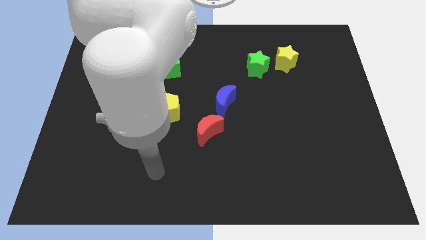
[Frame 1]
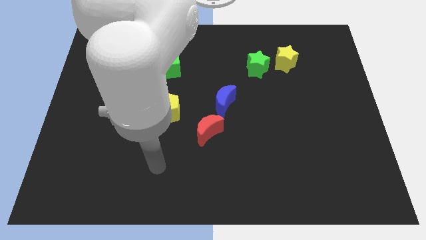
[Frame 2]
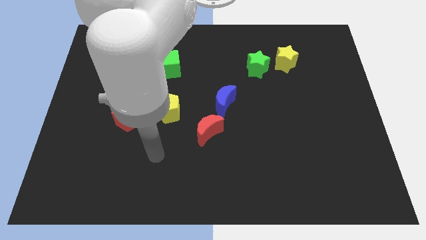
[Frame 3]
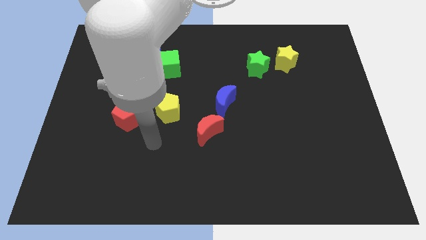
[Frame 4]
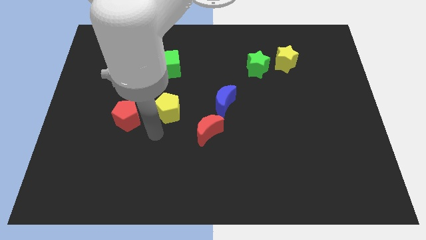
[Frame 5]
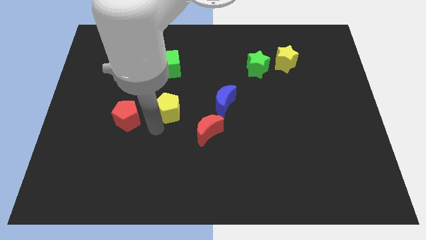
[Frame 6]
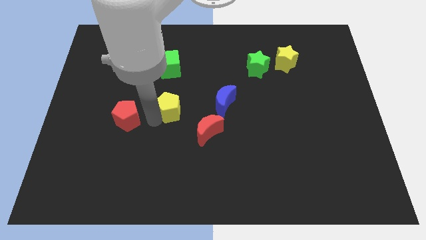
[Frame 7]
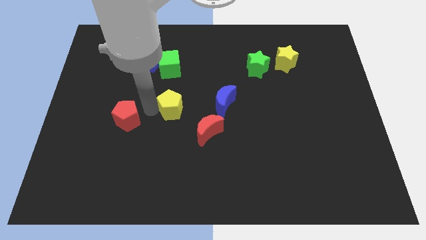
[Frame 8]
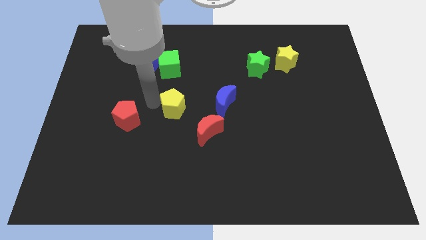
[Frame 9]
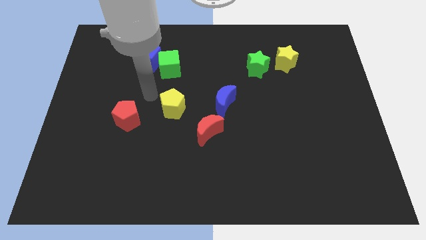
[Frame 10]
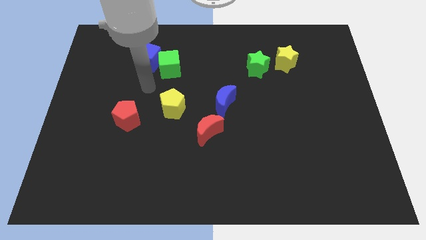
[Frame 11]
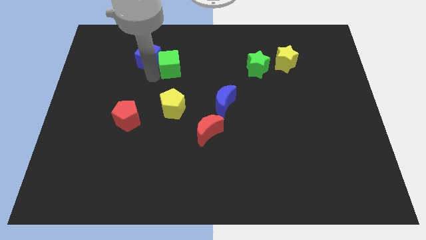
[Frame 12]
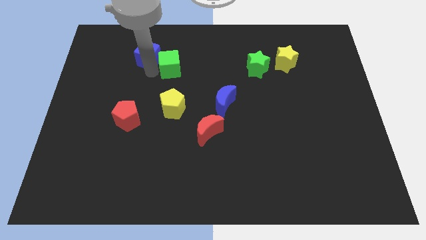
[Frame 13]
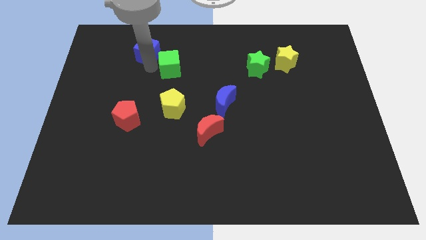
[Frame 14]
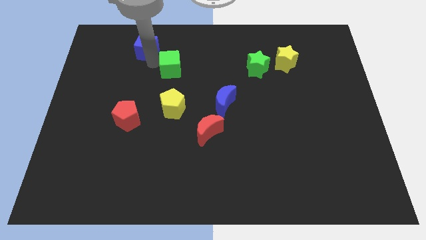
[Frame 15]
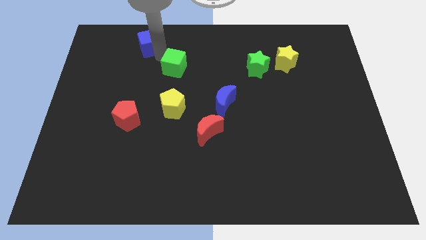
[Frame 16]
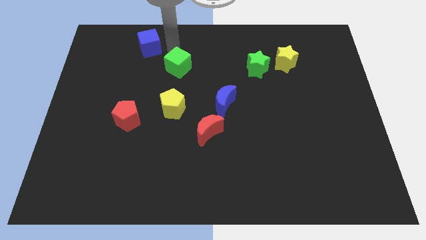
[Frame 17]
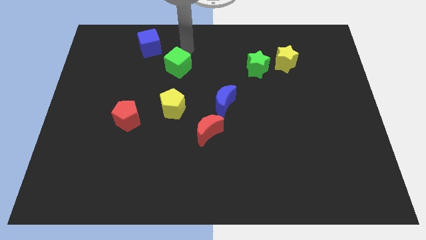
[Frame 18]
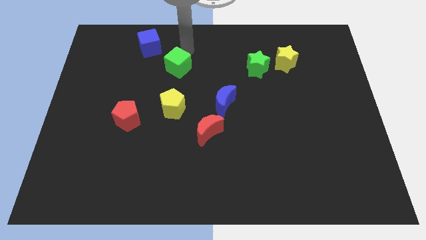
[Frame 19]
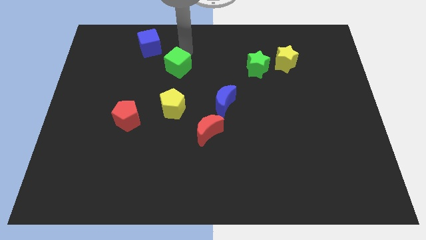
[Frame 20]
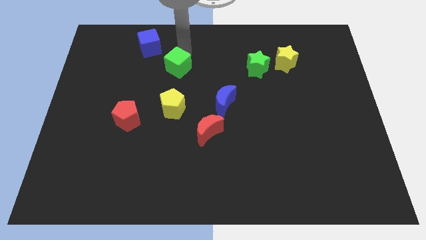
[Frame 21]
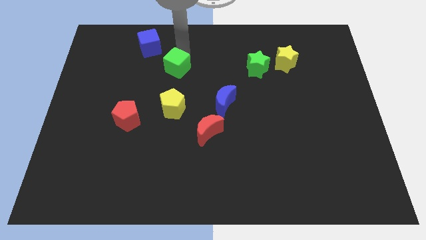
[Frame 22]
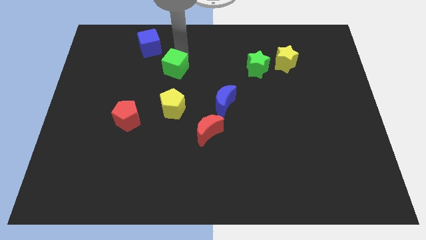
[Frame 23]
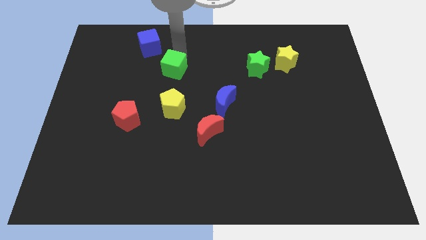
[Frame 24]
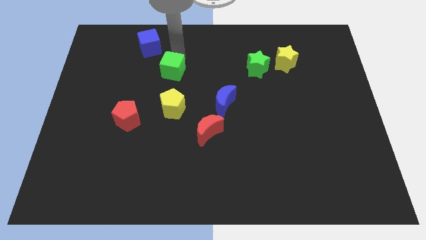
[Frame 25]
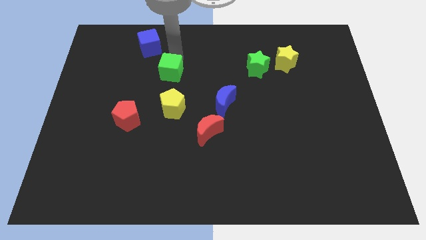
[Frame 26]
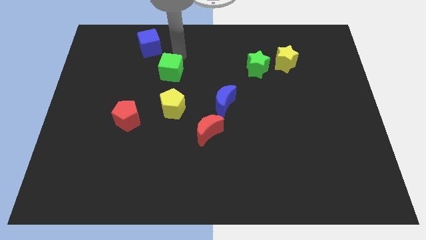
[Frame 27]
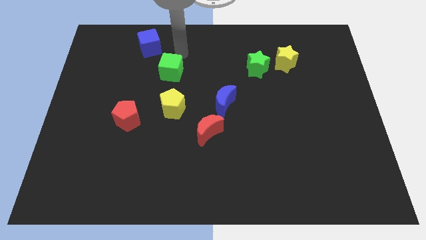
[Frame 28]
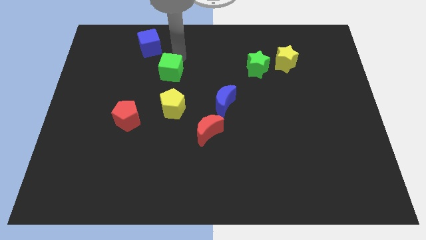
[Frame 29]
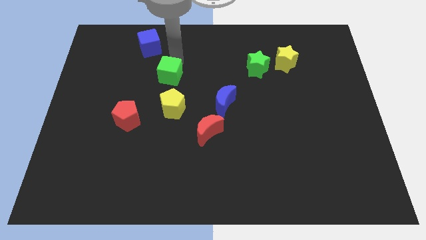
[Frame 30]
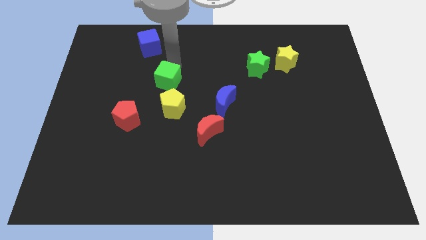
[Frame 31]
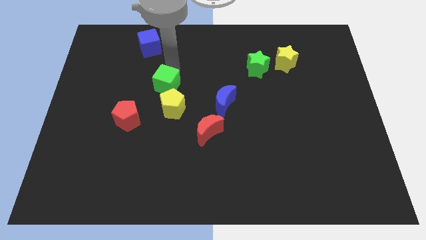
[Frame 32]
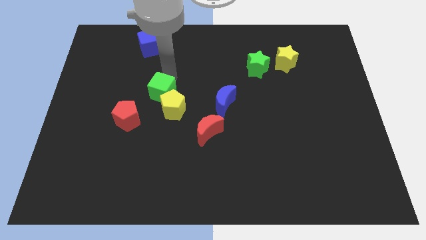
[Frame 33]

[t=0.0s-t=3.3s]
slide the green cube down slightly

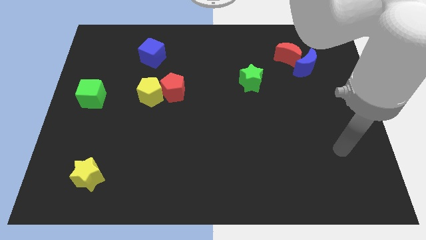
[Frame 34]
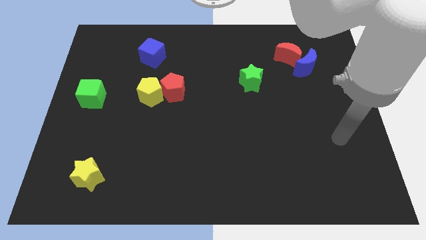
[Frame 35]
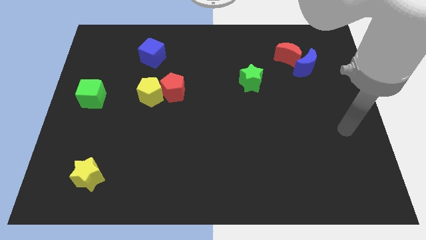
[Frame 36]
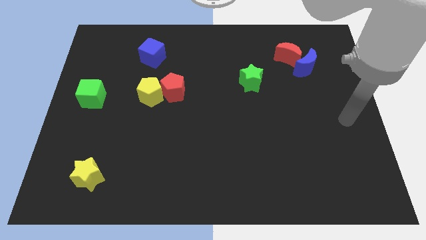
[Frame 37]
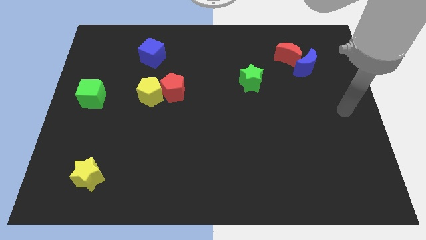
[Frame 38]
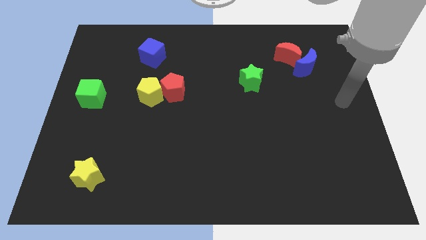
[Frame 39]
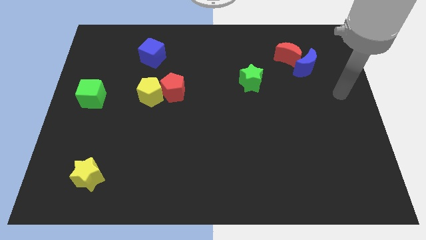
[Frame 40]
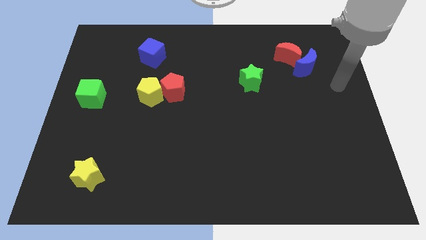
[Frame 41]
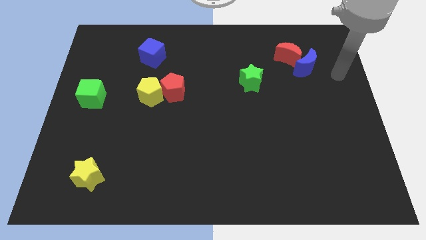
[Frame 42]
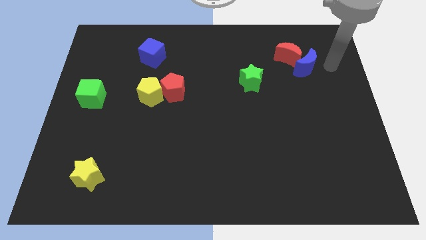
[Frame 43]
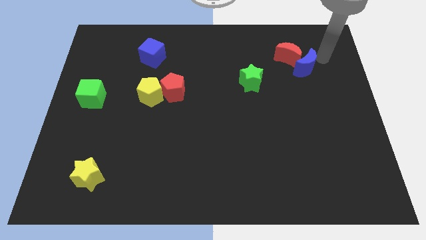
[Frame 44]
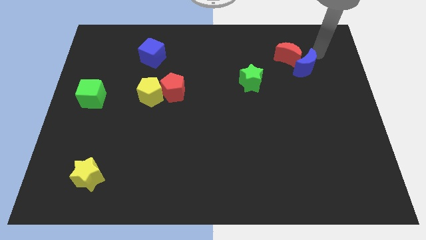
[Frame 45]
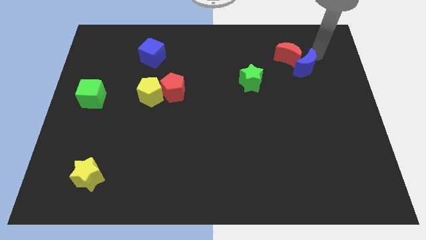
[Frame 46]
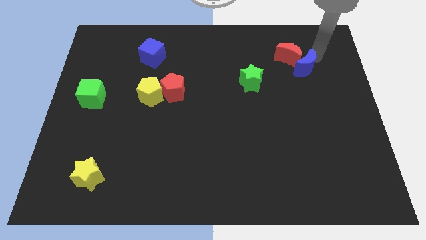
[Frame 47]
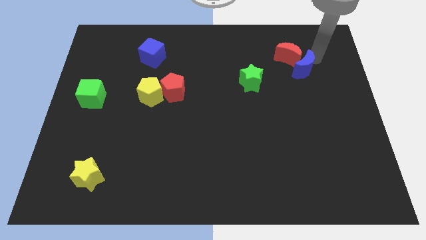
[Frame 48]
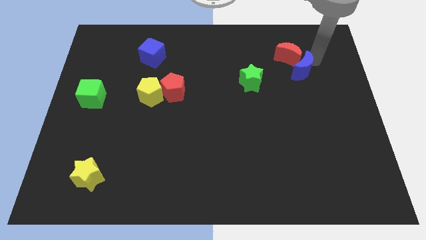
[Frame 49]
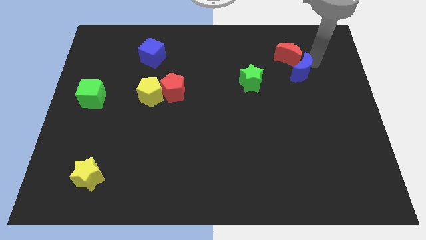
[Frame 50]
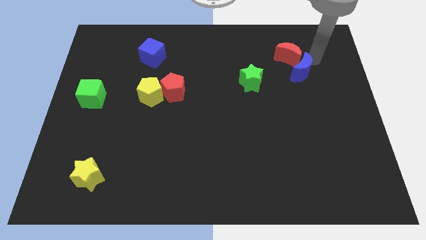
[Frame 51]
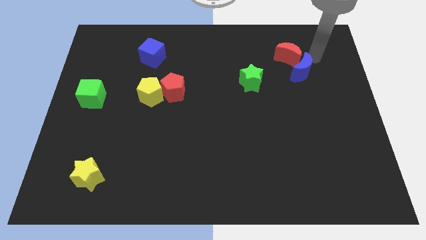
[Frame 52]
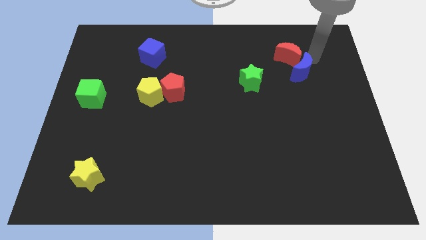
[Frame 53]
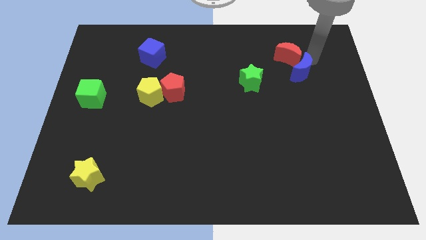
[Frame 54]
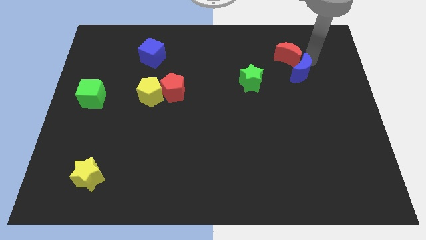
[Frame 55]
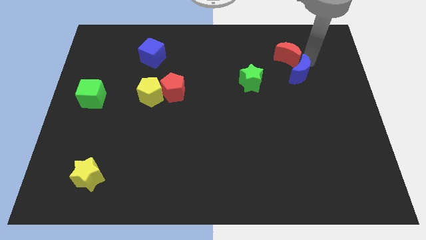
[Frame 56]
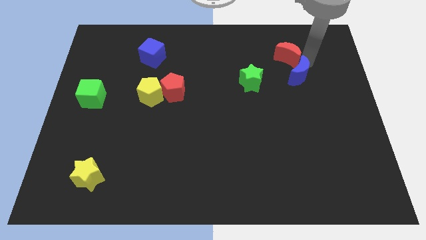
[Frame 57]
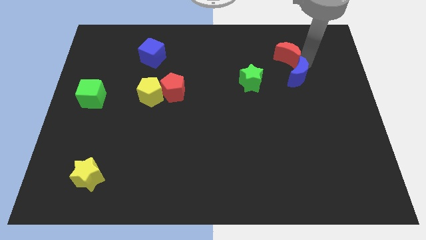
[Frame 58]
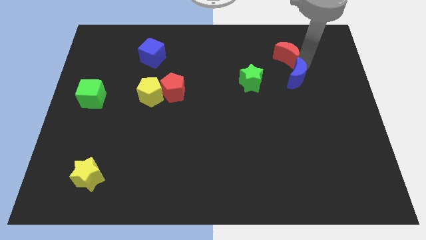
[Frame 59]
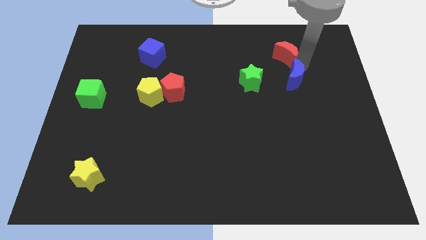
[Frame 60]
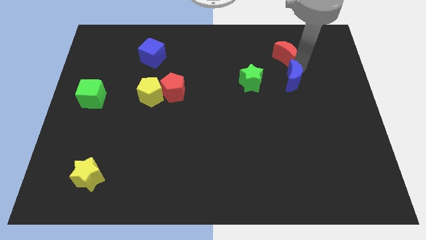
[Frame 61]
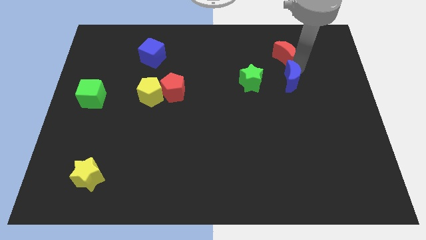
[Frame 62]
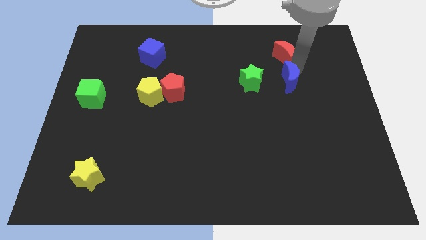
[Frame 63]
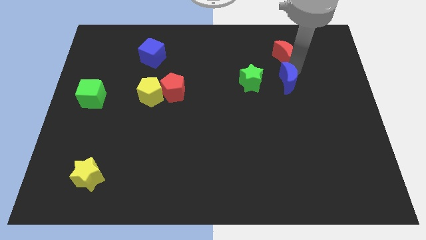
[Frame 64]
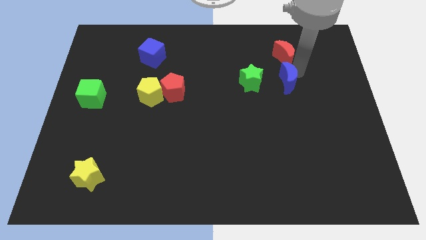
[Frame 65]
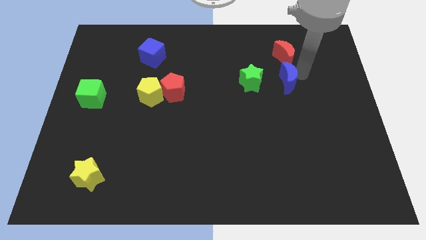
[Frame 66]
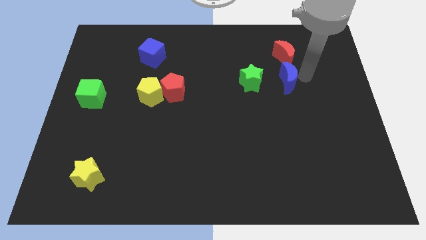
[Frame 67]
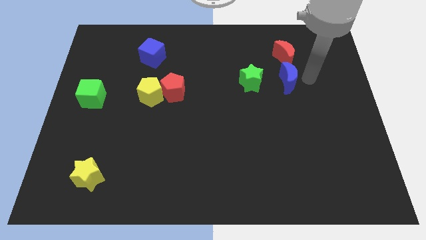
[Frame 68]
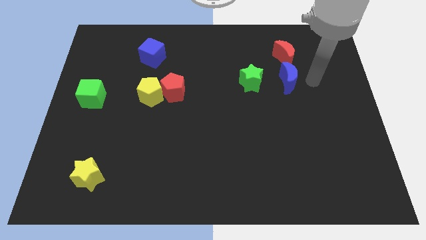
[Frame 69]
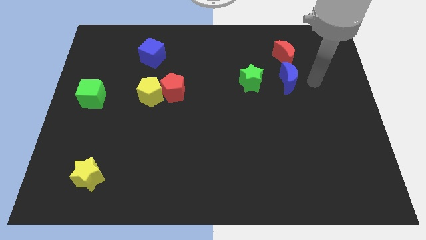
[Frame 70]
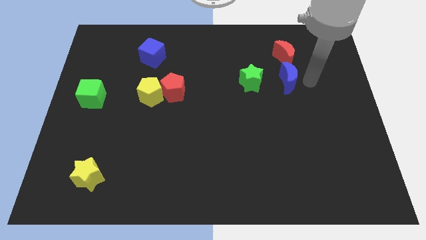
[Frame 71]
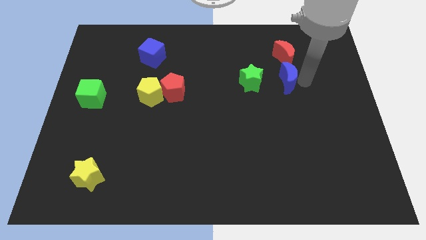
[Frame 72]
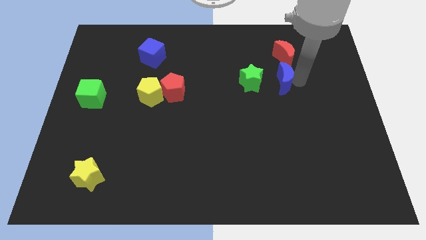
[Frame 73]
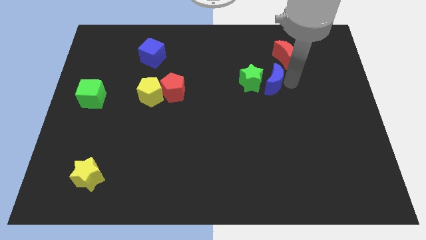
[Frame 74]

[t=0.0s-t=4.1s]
slide the blue moon to the left a little bit

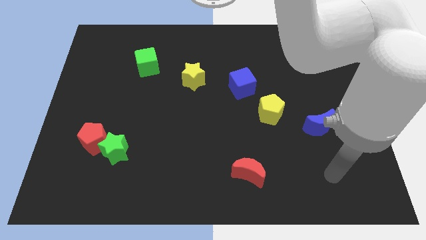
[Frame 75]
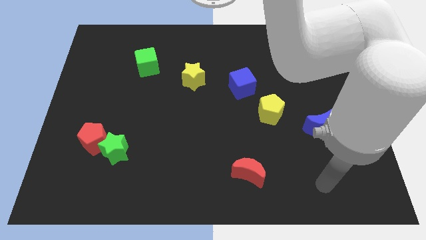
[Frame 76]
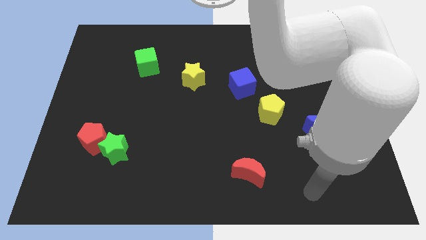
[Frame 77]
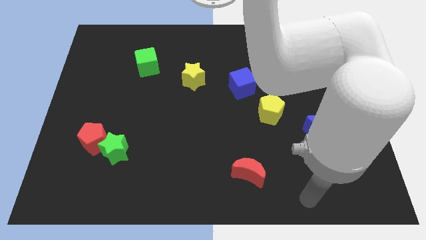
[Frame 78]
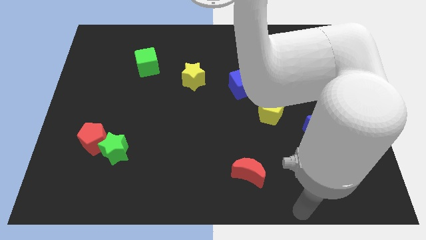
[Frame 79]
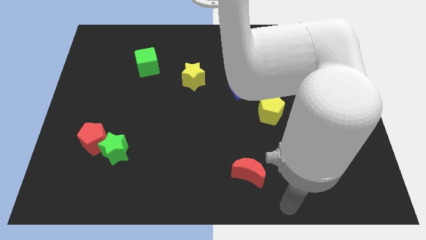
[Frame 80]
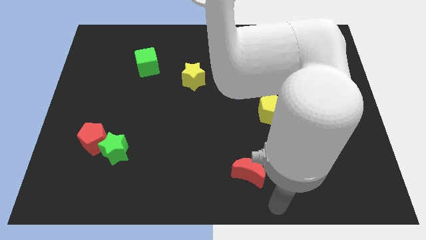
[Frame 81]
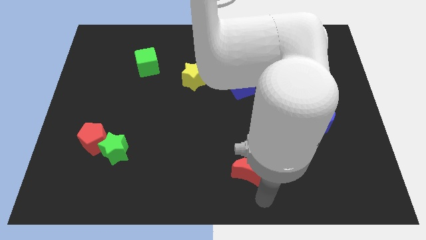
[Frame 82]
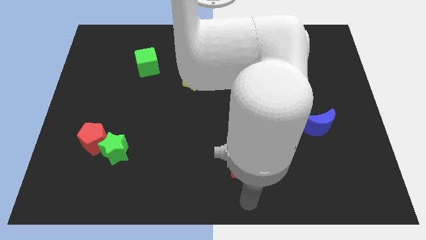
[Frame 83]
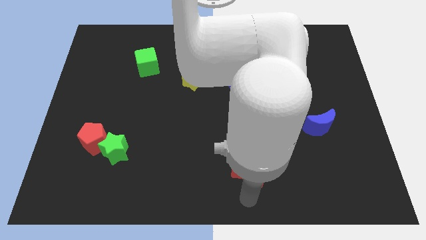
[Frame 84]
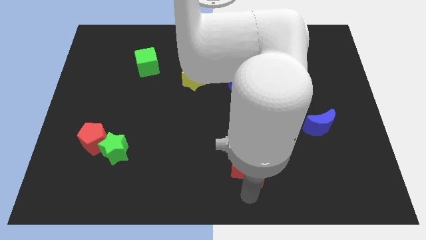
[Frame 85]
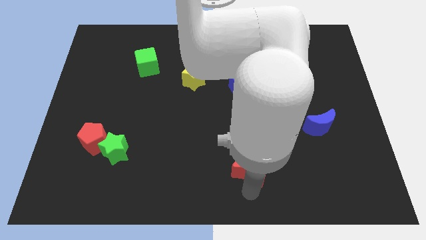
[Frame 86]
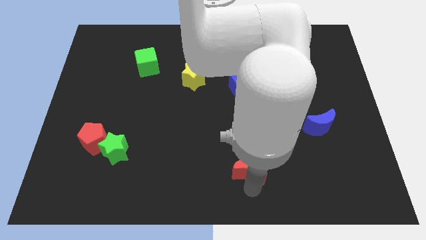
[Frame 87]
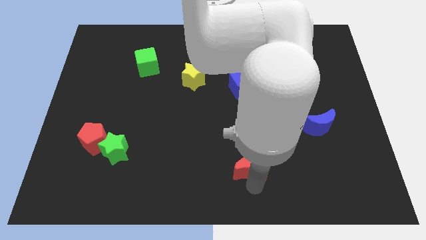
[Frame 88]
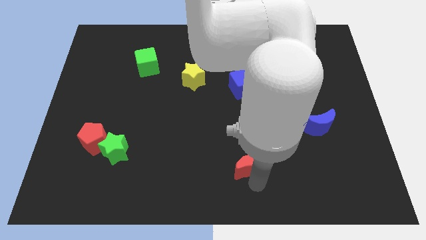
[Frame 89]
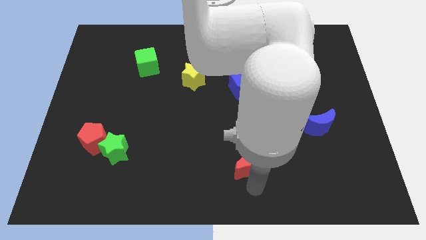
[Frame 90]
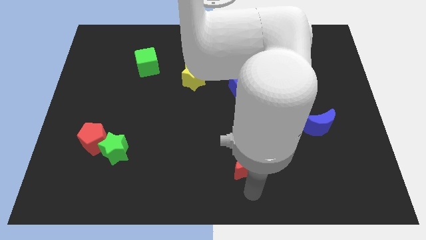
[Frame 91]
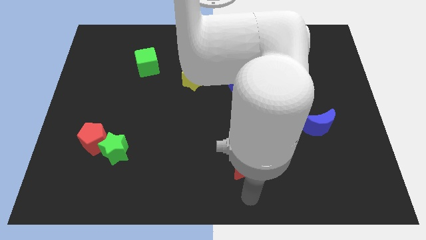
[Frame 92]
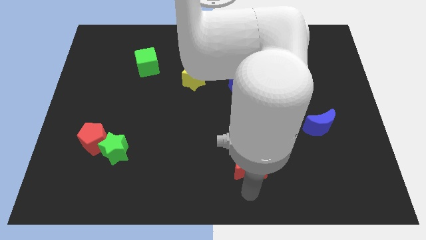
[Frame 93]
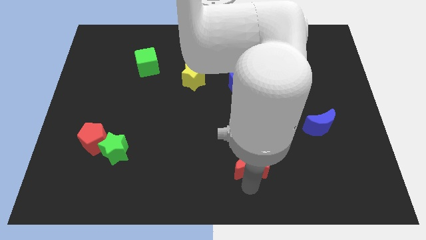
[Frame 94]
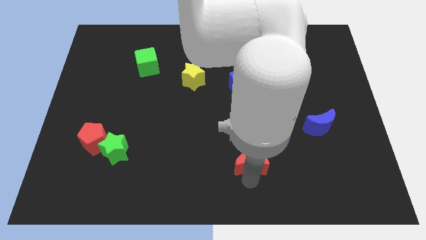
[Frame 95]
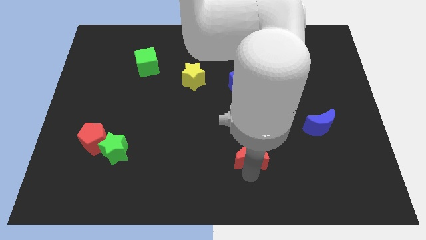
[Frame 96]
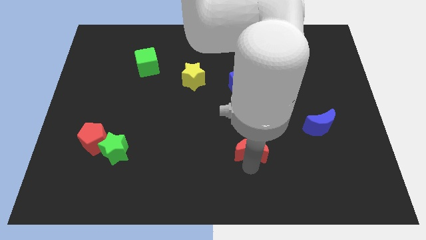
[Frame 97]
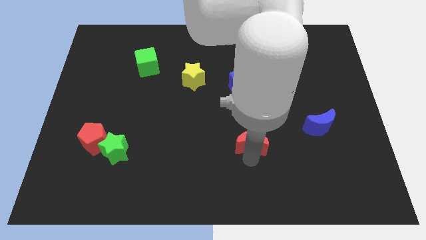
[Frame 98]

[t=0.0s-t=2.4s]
push the red moon a little bit up
